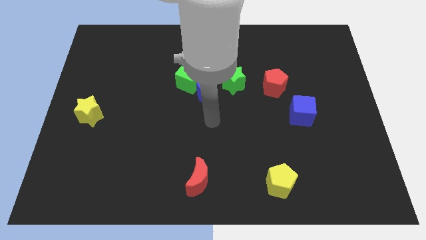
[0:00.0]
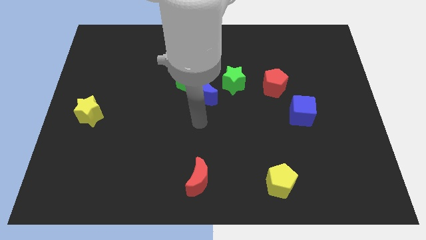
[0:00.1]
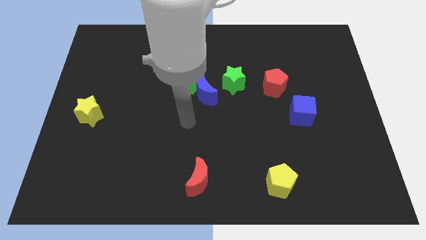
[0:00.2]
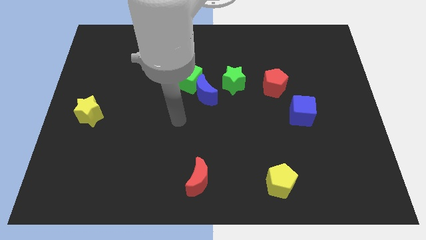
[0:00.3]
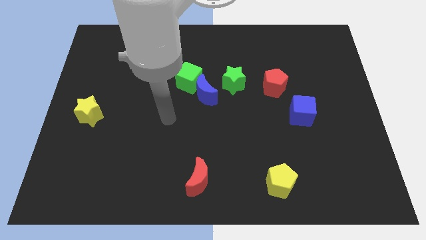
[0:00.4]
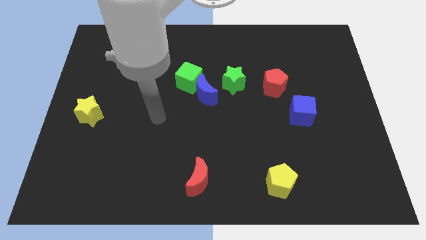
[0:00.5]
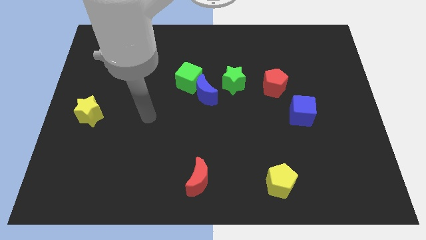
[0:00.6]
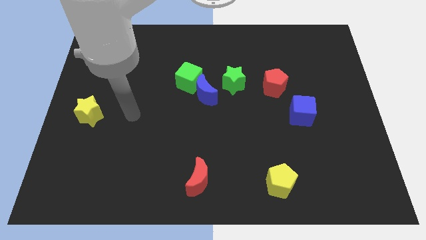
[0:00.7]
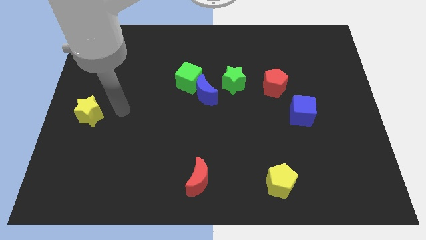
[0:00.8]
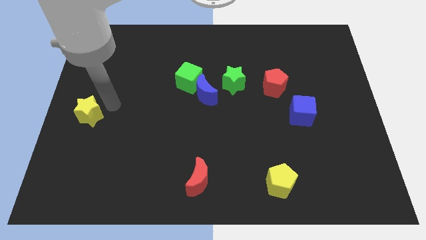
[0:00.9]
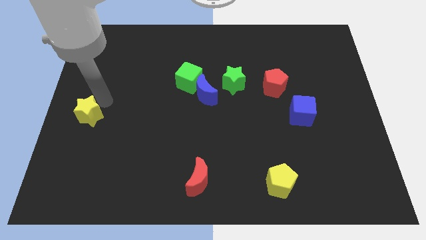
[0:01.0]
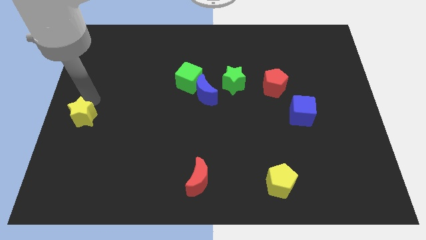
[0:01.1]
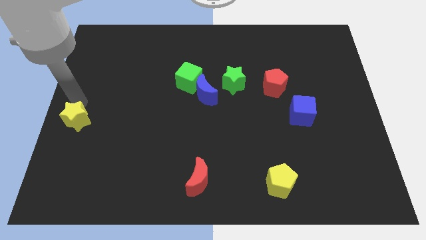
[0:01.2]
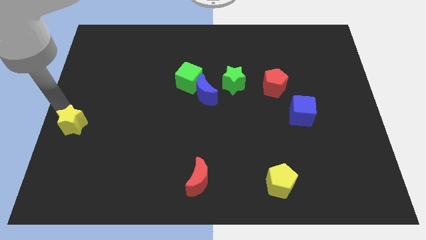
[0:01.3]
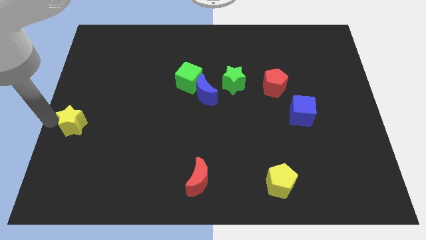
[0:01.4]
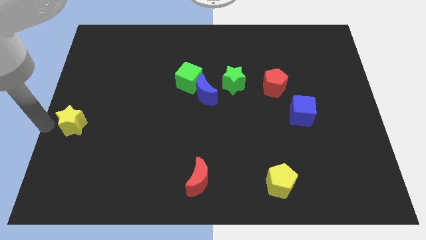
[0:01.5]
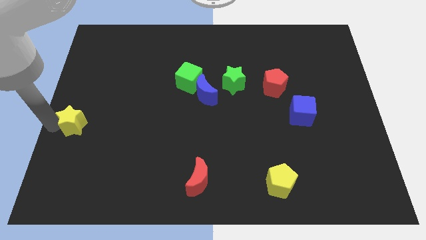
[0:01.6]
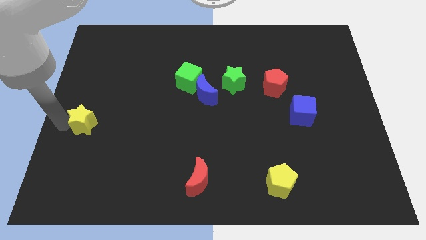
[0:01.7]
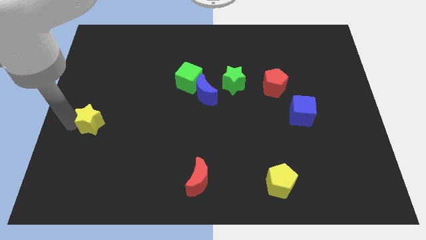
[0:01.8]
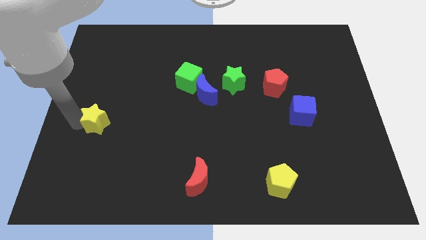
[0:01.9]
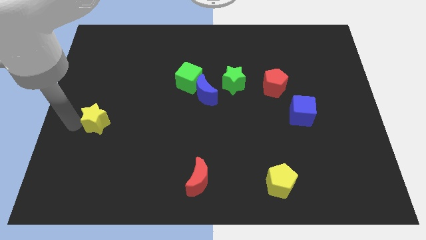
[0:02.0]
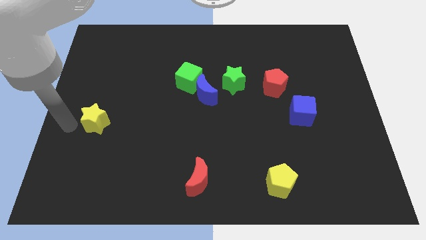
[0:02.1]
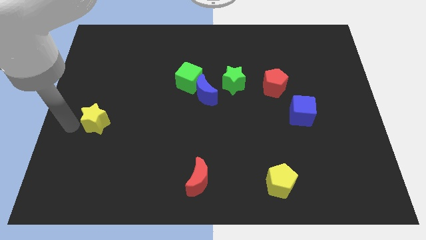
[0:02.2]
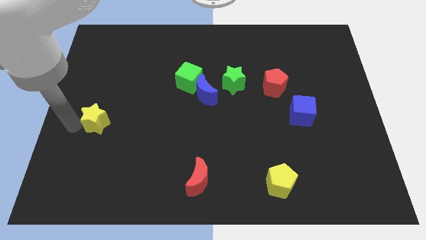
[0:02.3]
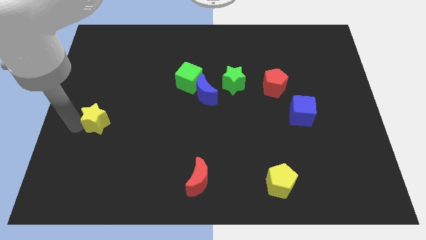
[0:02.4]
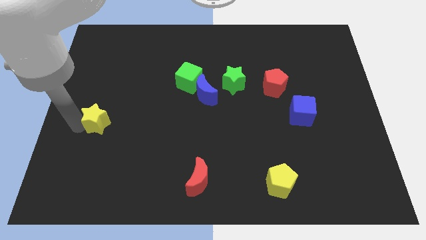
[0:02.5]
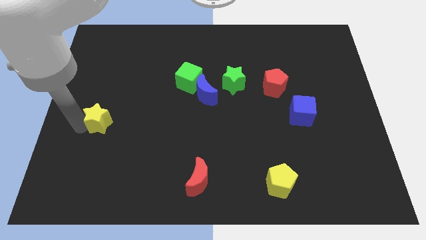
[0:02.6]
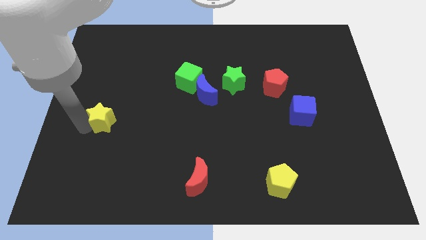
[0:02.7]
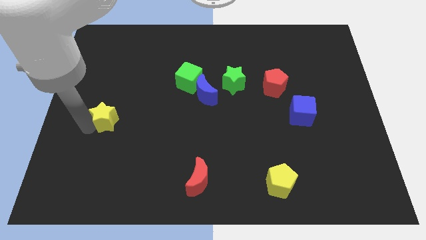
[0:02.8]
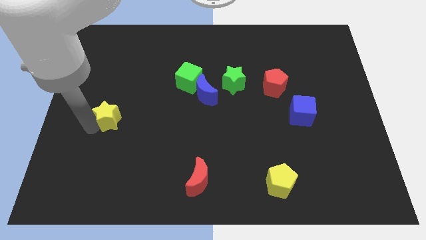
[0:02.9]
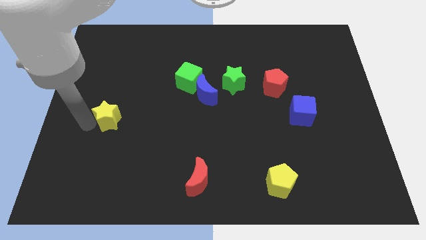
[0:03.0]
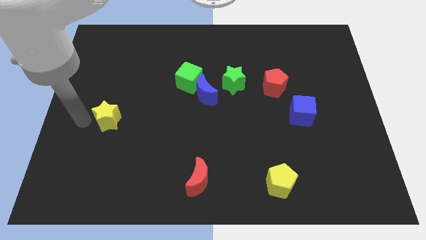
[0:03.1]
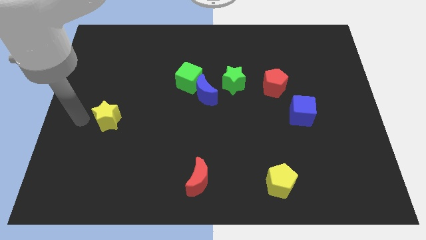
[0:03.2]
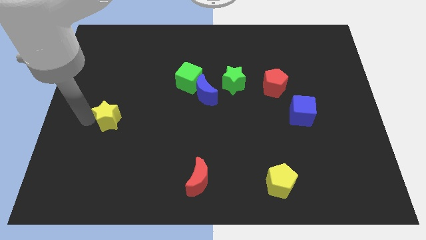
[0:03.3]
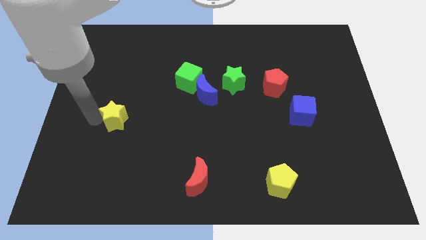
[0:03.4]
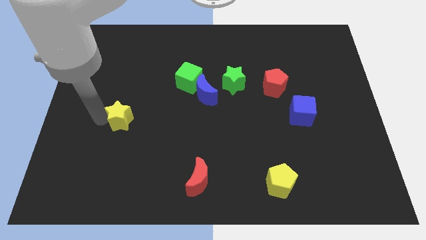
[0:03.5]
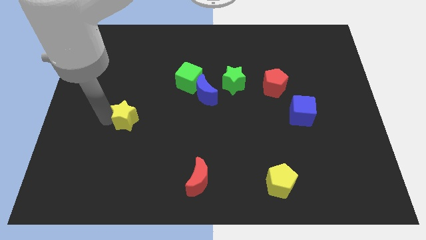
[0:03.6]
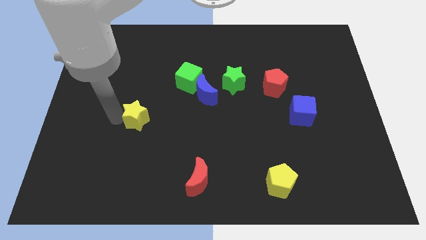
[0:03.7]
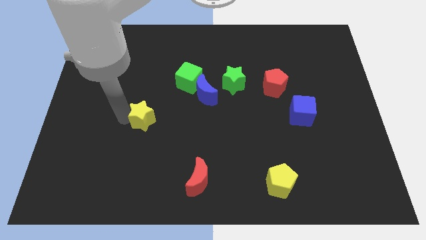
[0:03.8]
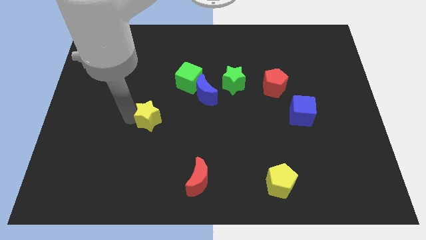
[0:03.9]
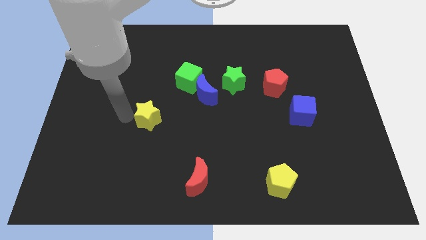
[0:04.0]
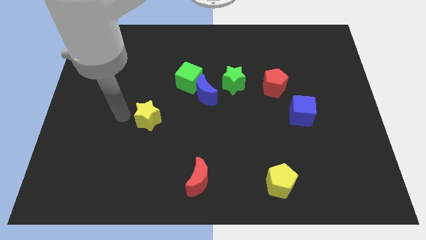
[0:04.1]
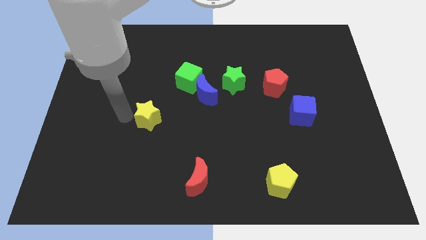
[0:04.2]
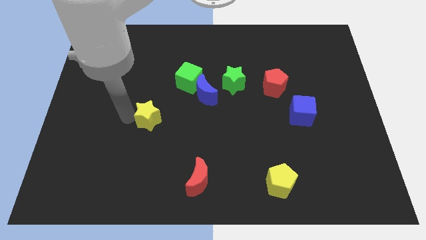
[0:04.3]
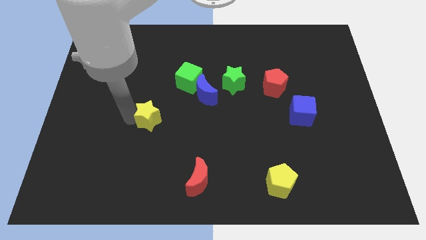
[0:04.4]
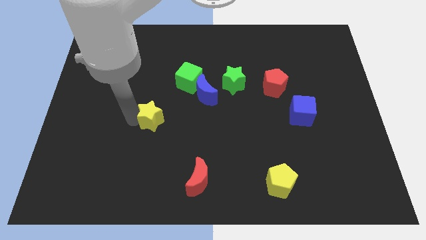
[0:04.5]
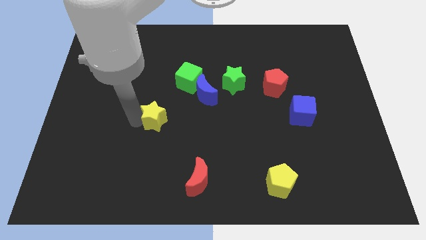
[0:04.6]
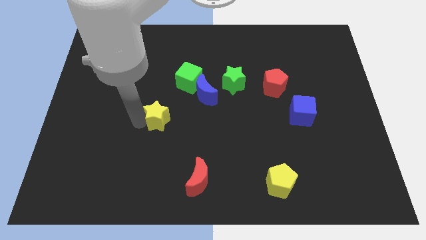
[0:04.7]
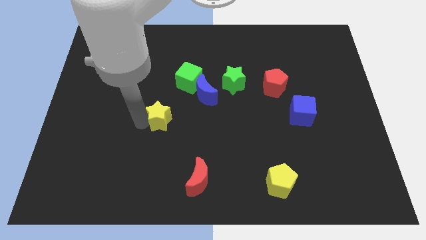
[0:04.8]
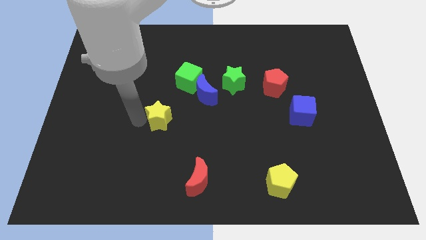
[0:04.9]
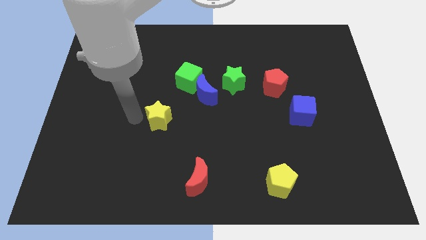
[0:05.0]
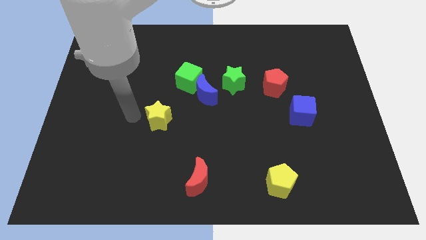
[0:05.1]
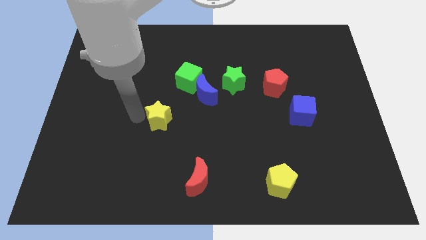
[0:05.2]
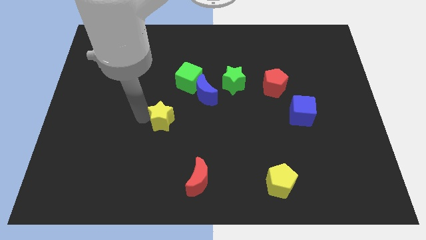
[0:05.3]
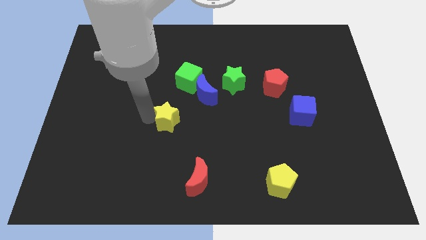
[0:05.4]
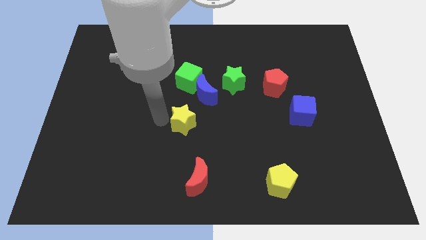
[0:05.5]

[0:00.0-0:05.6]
push the yellow star right

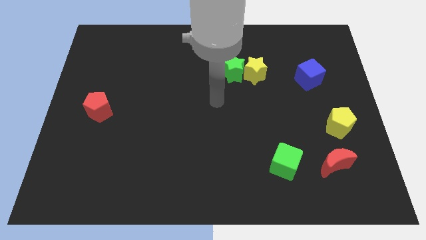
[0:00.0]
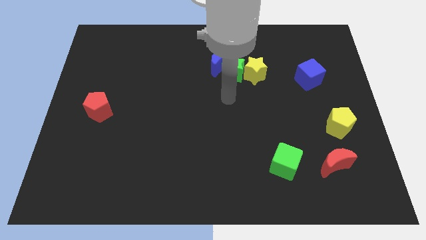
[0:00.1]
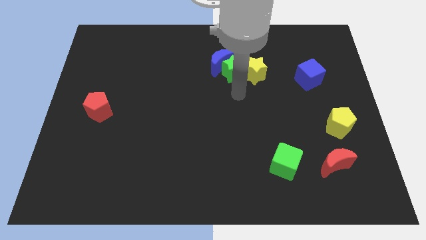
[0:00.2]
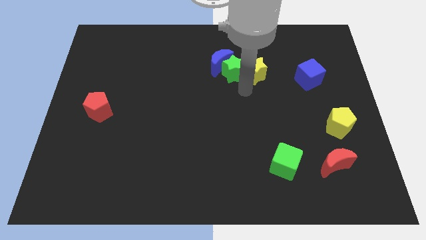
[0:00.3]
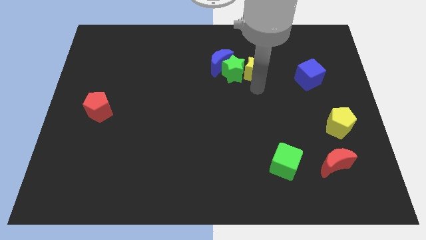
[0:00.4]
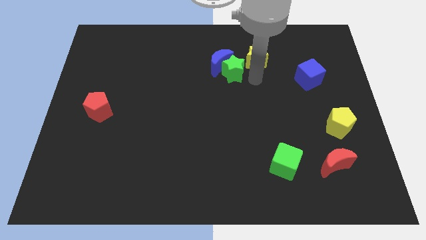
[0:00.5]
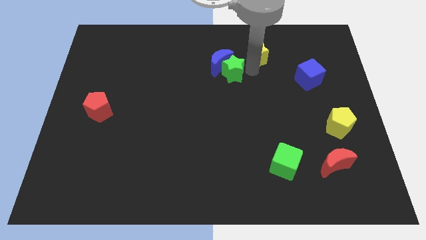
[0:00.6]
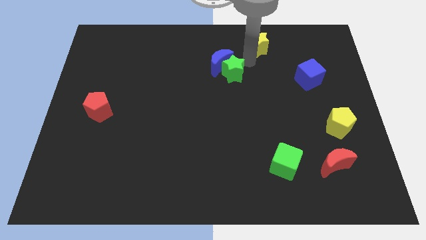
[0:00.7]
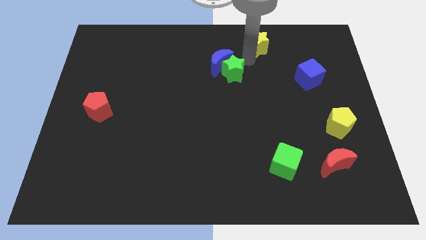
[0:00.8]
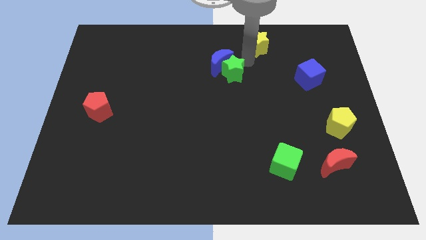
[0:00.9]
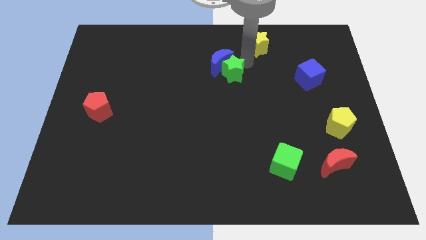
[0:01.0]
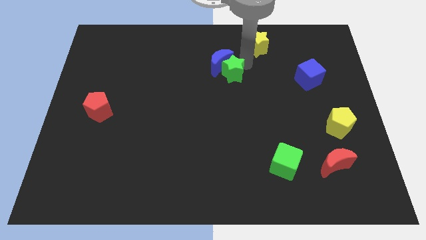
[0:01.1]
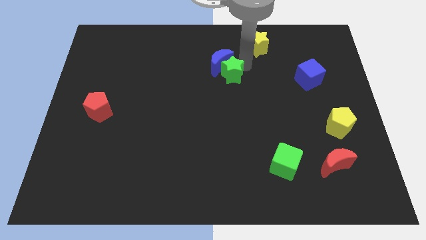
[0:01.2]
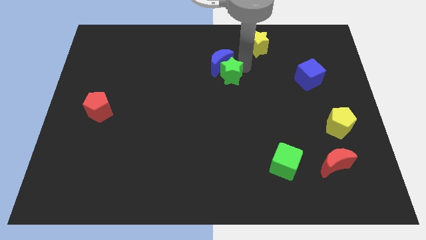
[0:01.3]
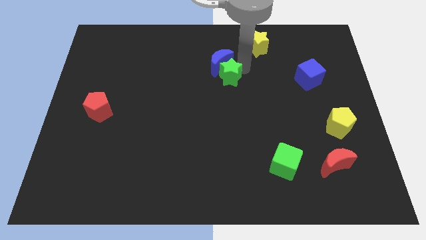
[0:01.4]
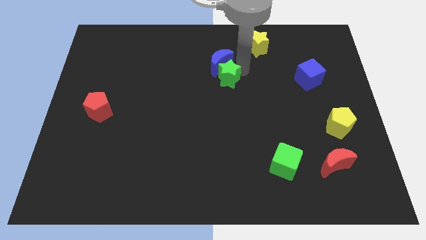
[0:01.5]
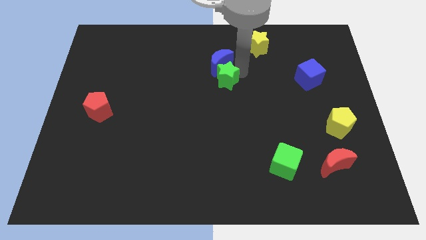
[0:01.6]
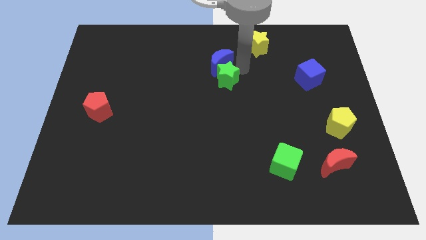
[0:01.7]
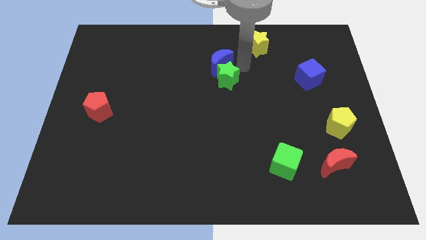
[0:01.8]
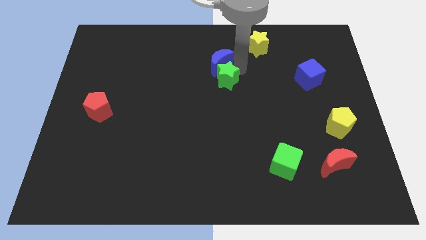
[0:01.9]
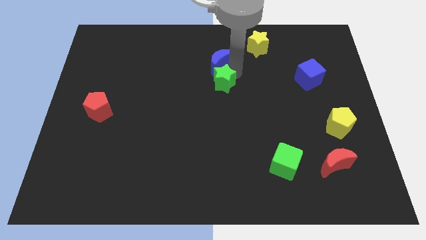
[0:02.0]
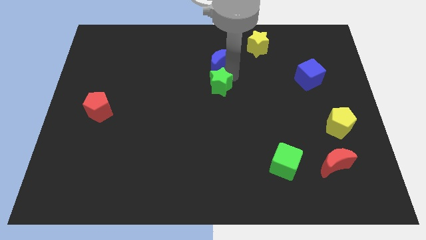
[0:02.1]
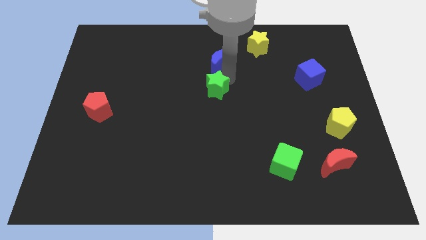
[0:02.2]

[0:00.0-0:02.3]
push the green star down and then to the left a bit

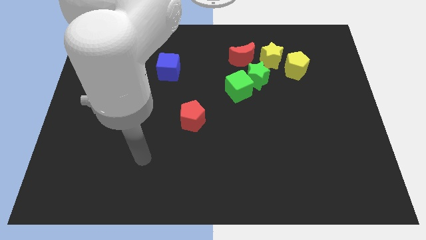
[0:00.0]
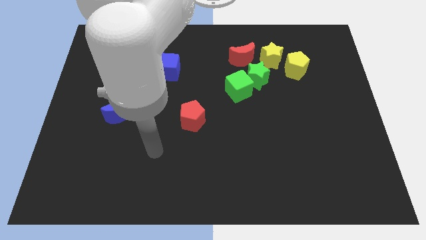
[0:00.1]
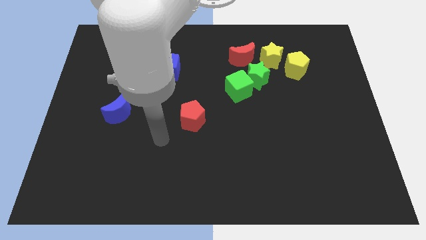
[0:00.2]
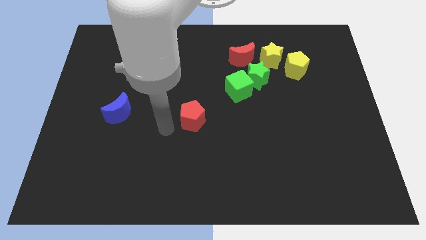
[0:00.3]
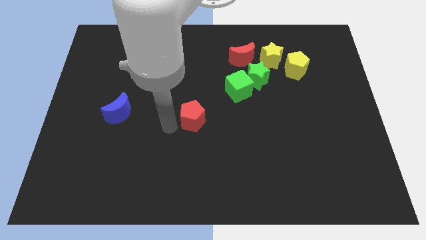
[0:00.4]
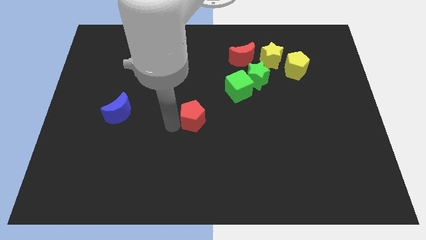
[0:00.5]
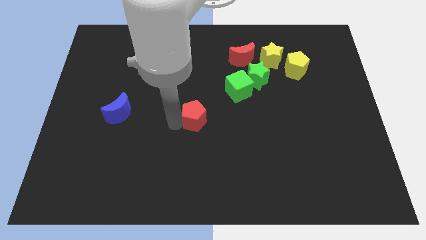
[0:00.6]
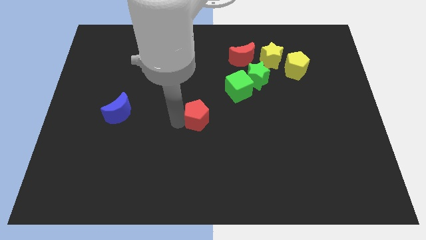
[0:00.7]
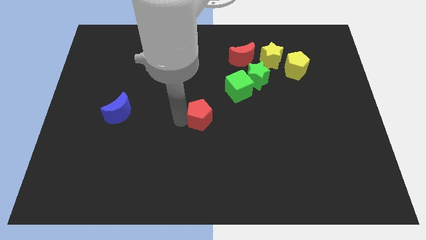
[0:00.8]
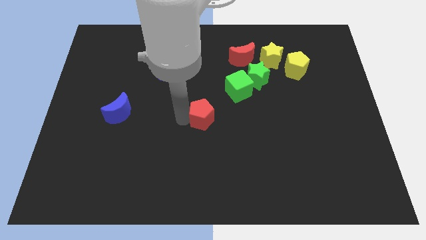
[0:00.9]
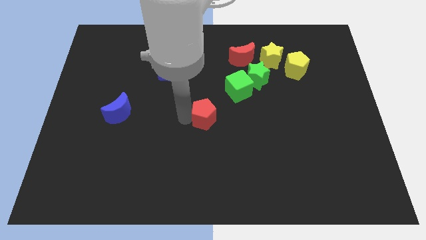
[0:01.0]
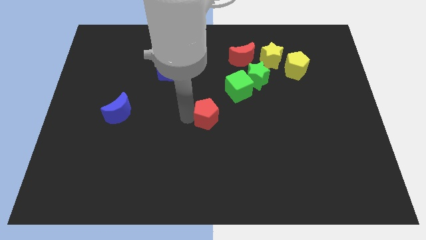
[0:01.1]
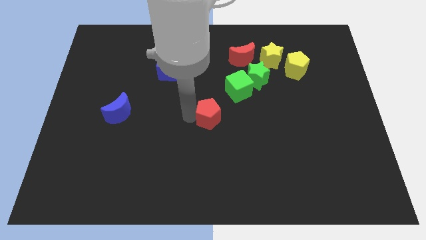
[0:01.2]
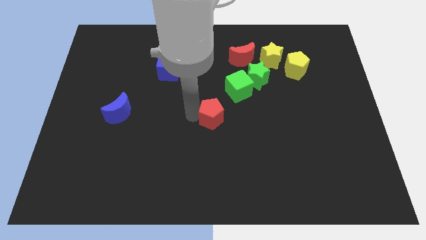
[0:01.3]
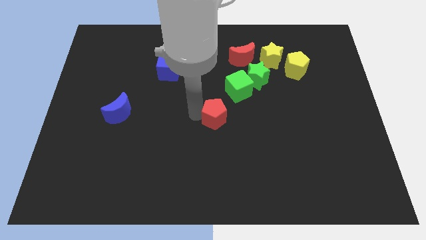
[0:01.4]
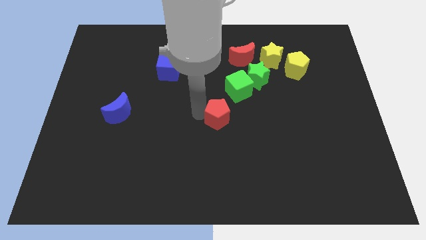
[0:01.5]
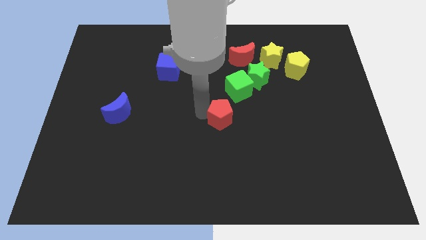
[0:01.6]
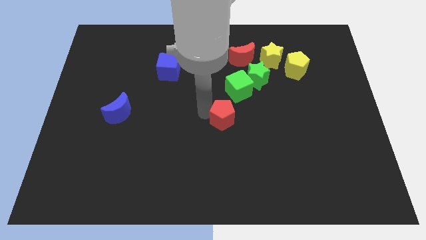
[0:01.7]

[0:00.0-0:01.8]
move the red pentagon somewhat to the right
